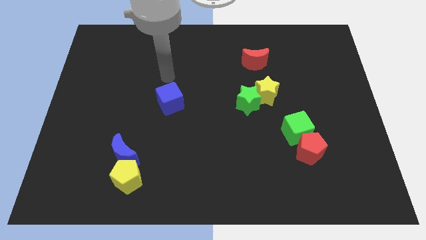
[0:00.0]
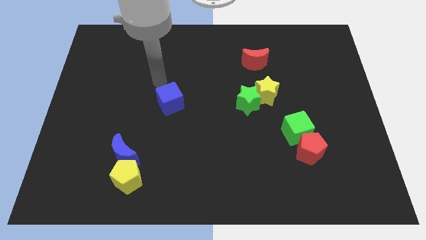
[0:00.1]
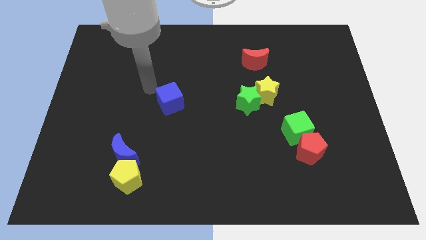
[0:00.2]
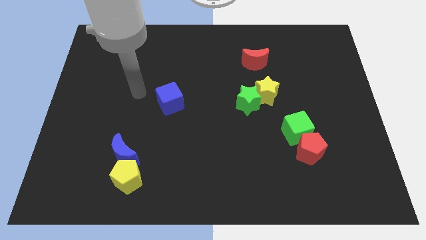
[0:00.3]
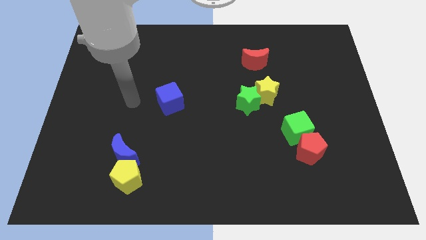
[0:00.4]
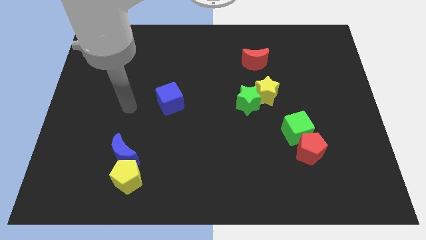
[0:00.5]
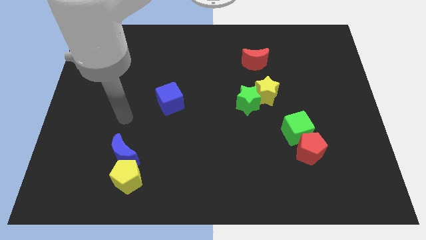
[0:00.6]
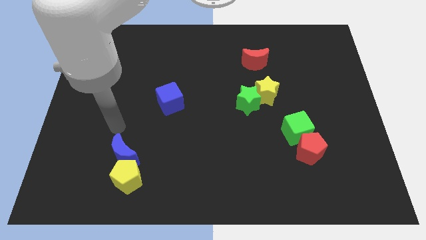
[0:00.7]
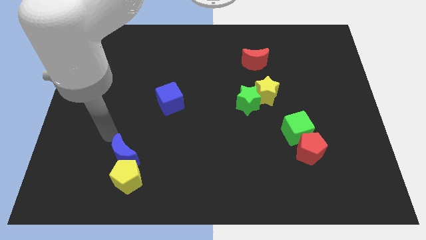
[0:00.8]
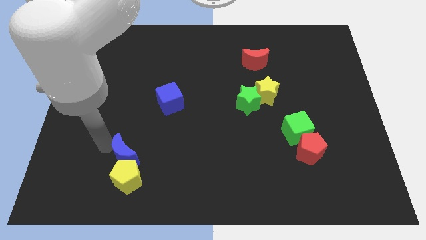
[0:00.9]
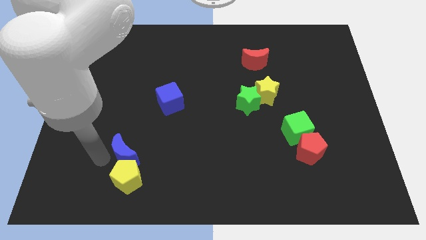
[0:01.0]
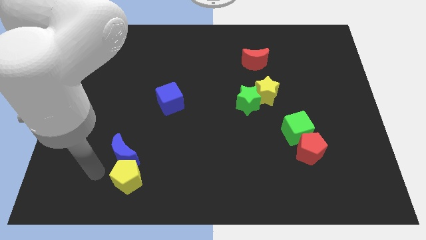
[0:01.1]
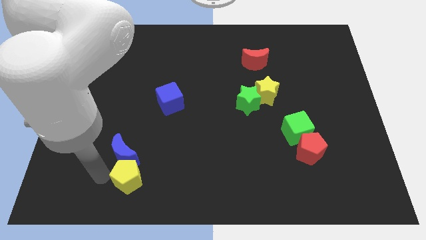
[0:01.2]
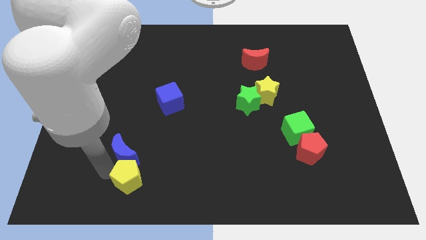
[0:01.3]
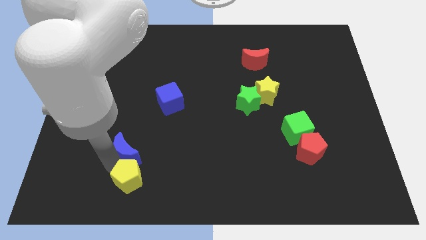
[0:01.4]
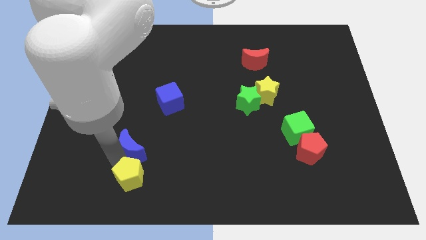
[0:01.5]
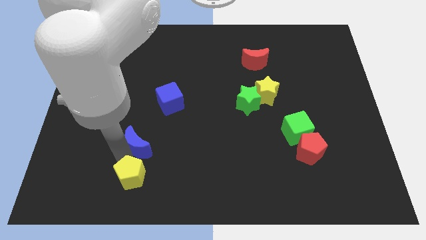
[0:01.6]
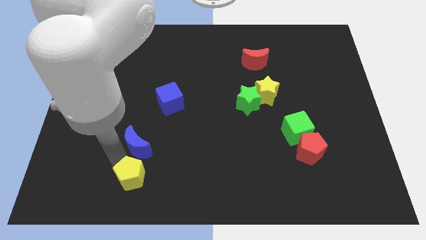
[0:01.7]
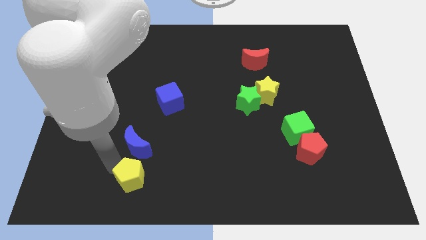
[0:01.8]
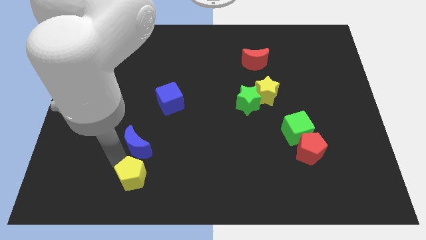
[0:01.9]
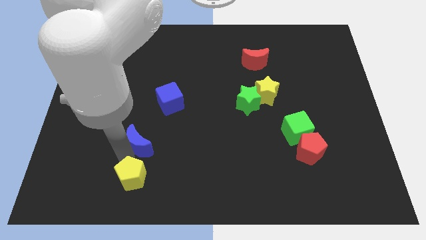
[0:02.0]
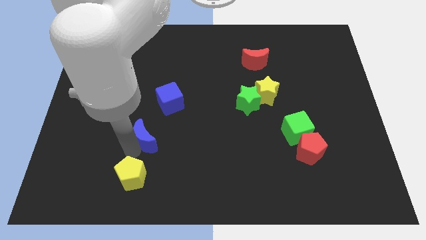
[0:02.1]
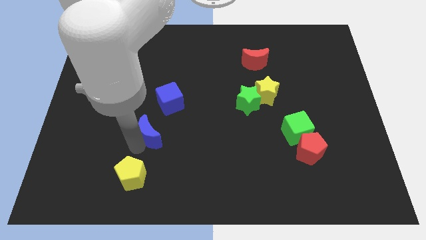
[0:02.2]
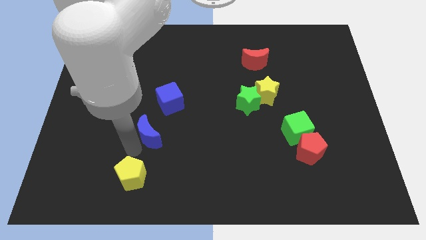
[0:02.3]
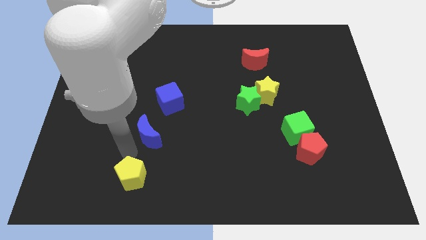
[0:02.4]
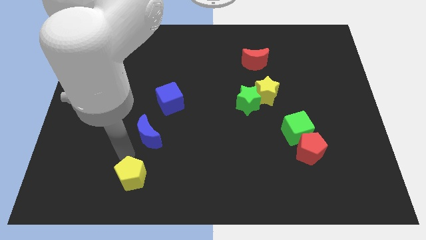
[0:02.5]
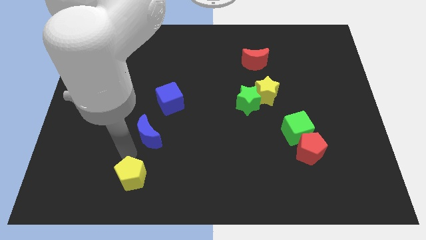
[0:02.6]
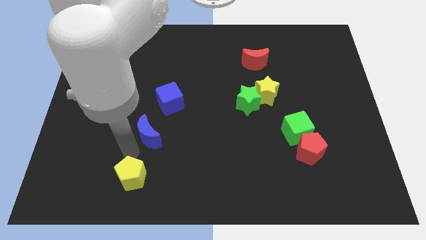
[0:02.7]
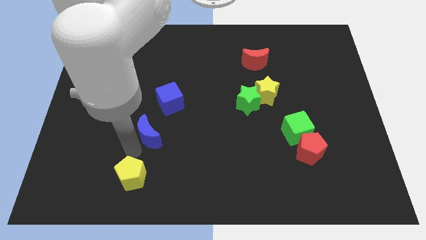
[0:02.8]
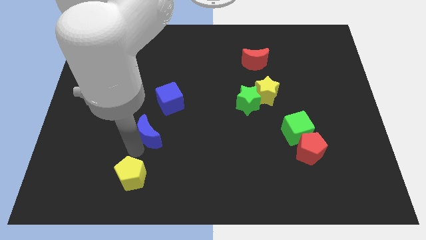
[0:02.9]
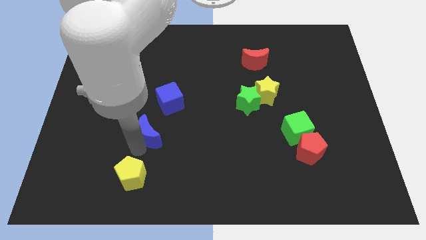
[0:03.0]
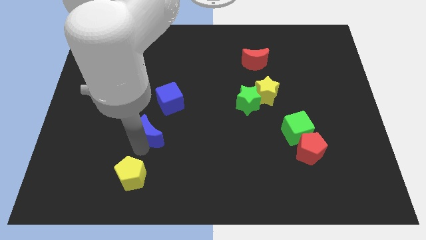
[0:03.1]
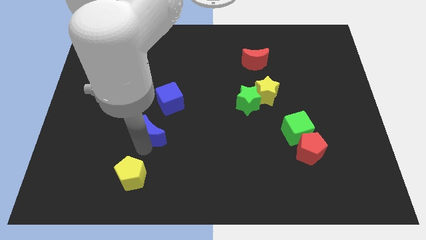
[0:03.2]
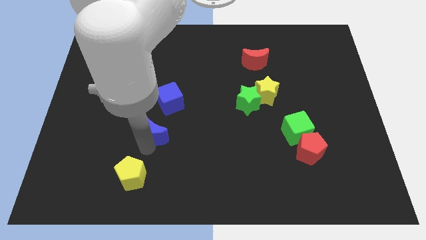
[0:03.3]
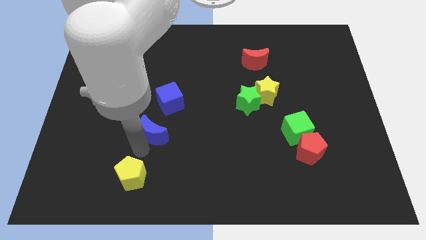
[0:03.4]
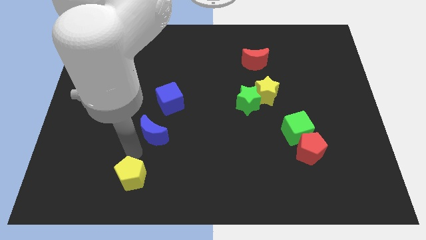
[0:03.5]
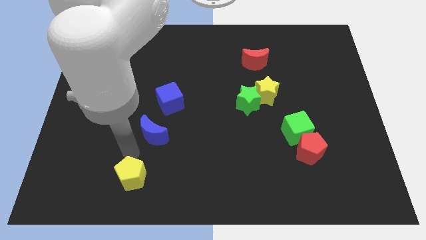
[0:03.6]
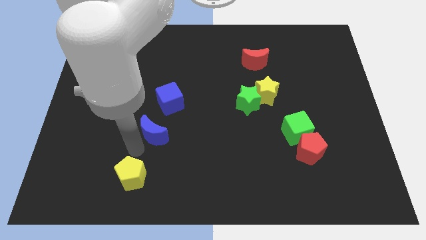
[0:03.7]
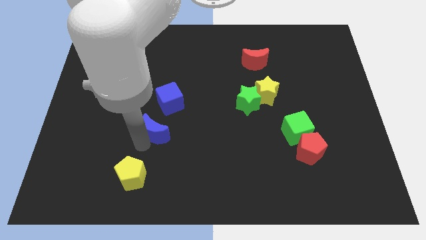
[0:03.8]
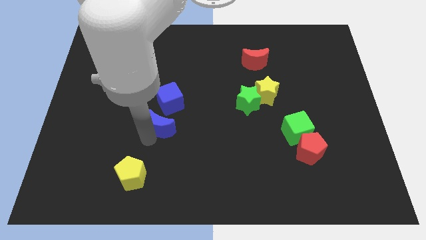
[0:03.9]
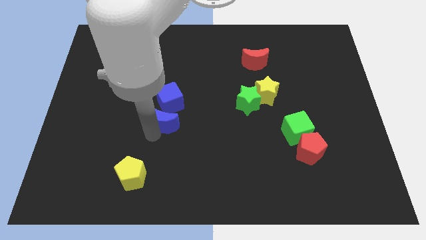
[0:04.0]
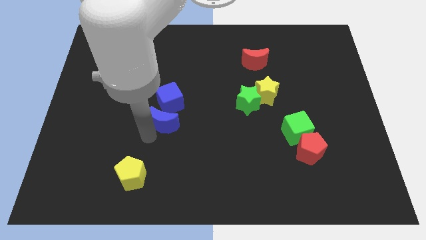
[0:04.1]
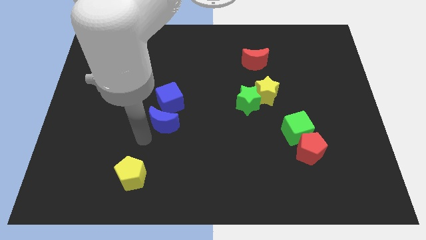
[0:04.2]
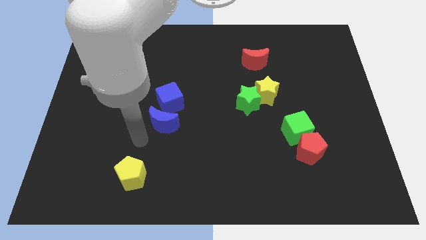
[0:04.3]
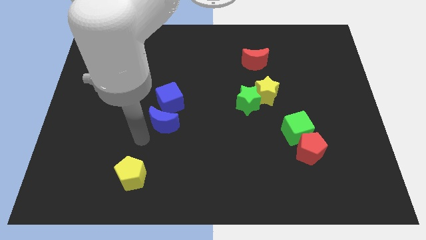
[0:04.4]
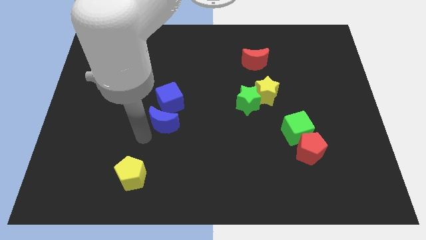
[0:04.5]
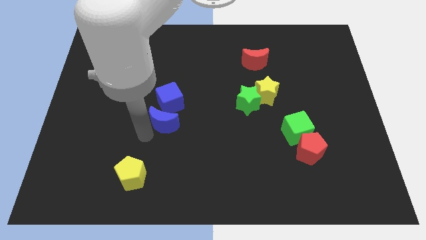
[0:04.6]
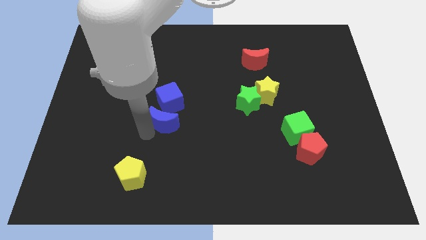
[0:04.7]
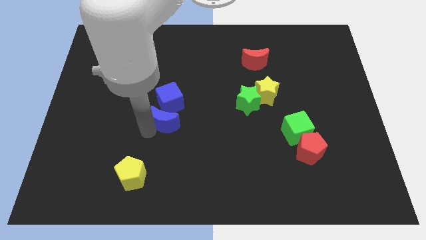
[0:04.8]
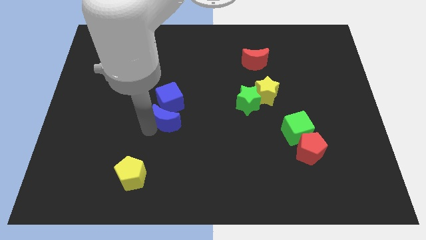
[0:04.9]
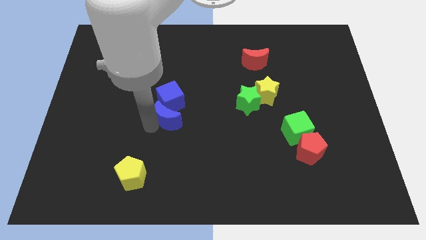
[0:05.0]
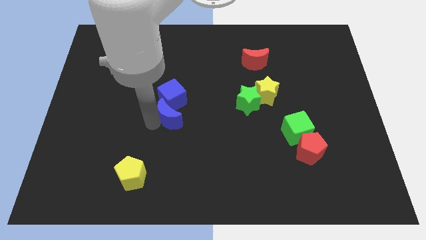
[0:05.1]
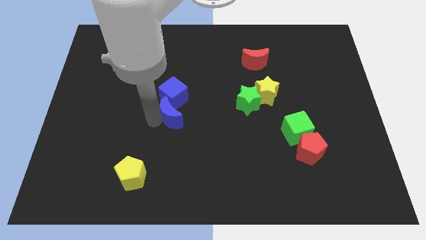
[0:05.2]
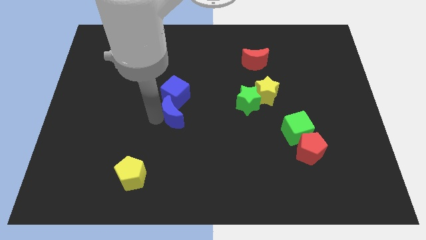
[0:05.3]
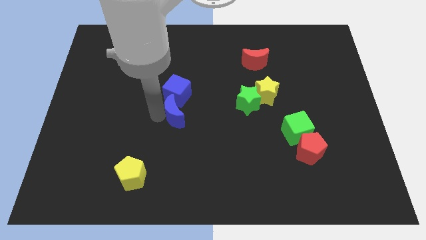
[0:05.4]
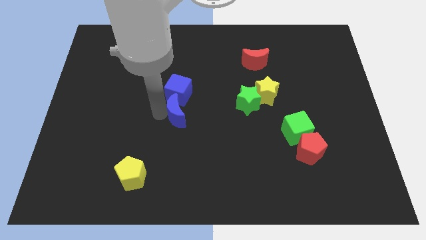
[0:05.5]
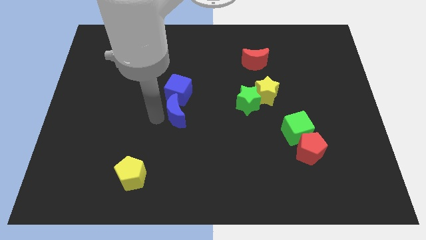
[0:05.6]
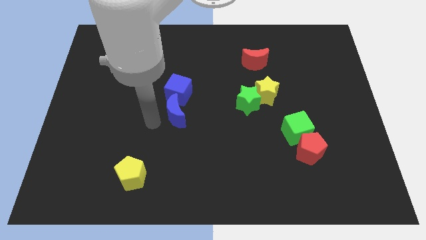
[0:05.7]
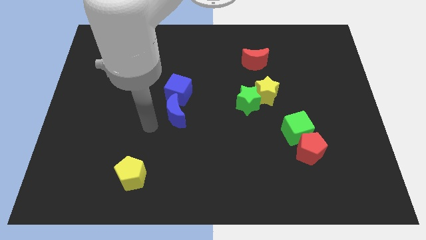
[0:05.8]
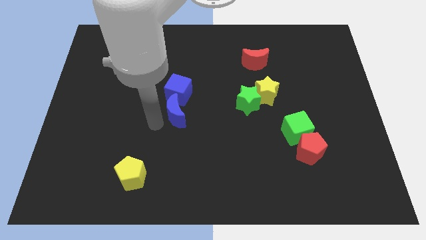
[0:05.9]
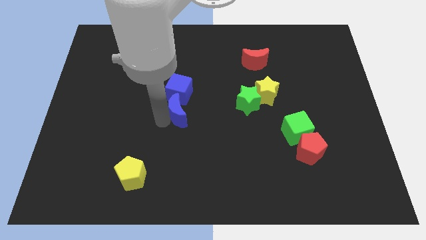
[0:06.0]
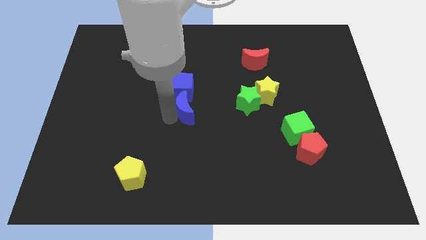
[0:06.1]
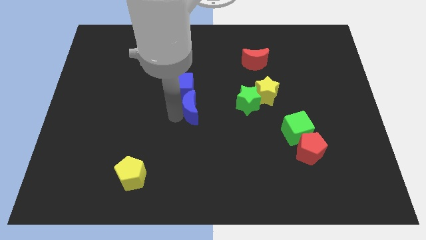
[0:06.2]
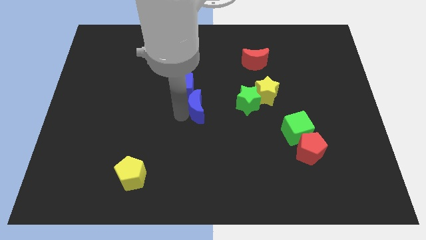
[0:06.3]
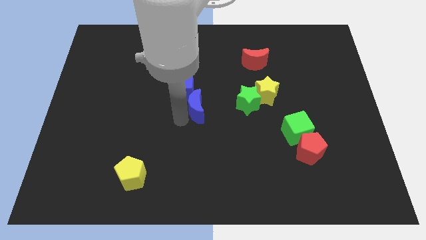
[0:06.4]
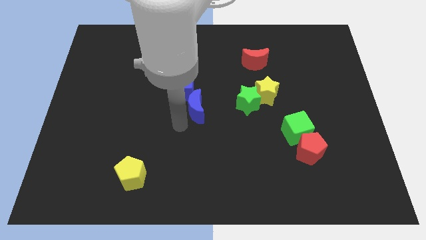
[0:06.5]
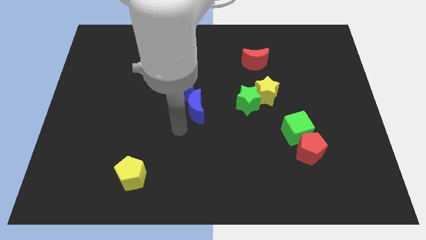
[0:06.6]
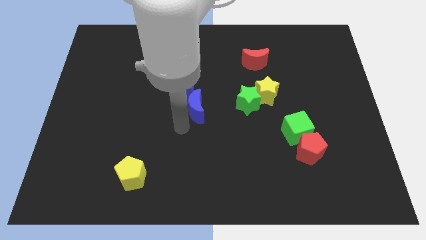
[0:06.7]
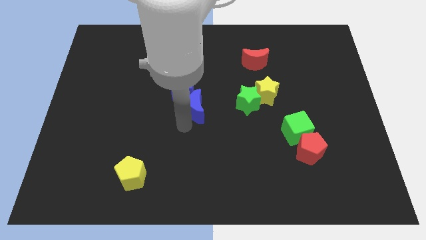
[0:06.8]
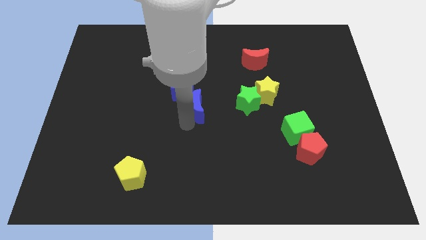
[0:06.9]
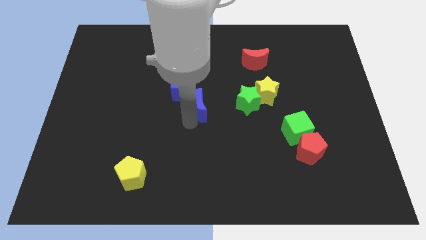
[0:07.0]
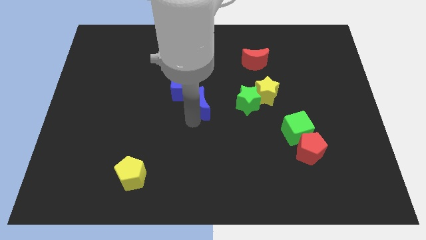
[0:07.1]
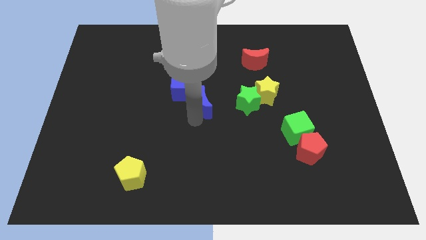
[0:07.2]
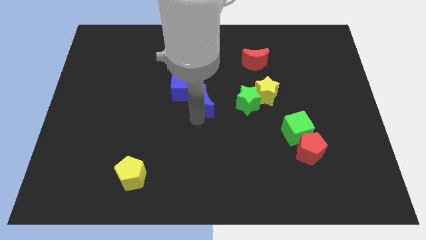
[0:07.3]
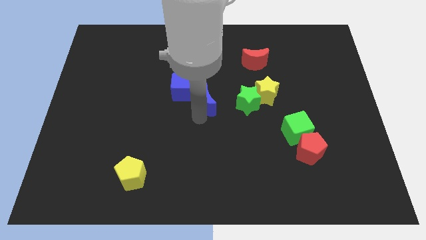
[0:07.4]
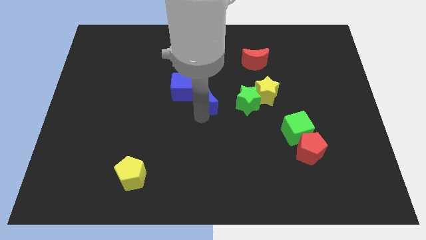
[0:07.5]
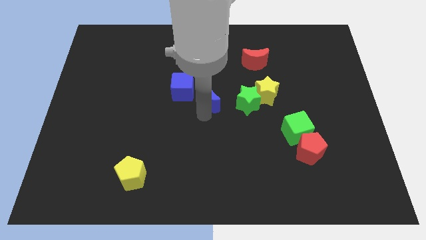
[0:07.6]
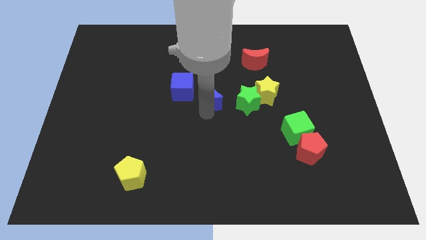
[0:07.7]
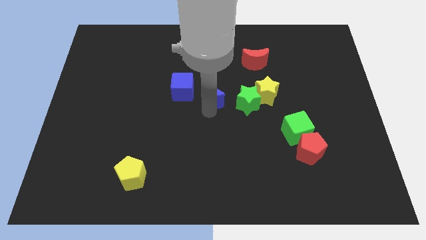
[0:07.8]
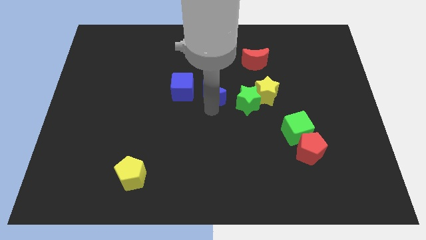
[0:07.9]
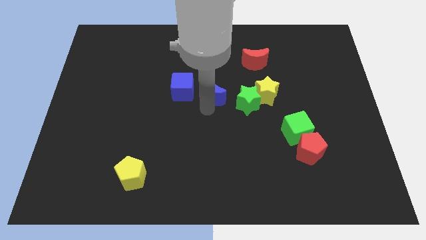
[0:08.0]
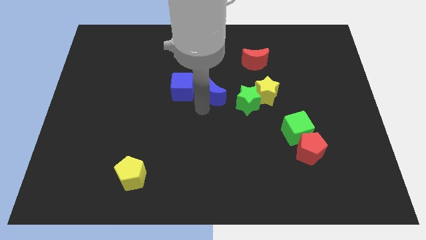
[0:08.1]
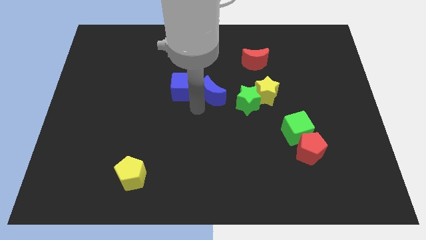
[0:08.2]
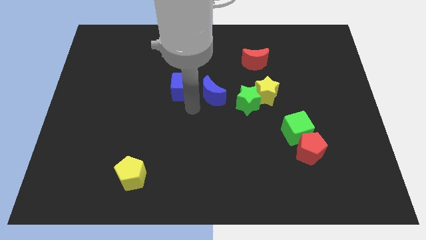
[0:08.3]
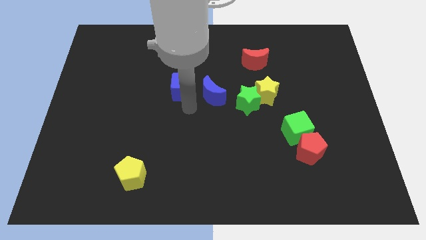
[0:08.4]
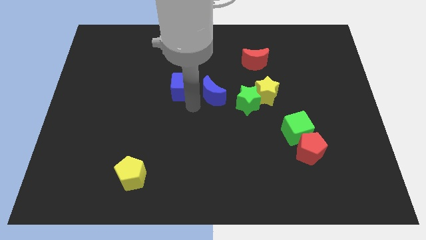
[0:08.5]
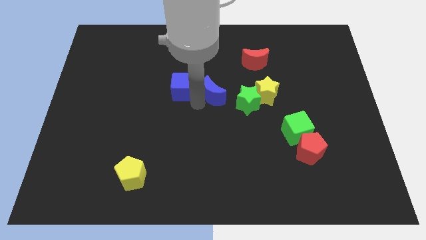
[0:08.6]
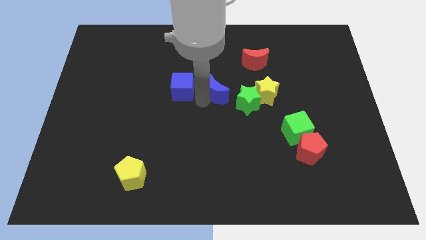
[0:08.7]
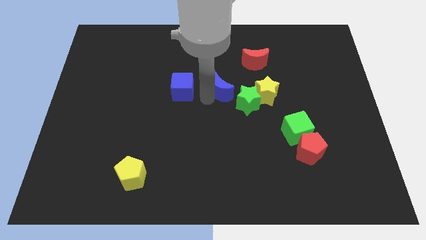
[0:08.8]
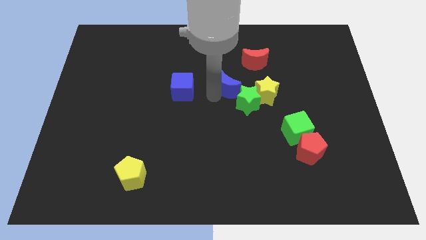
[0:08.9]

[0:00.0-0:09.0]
put the blue moon to the bottom left of the red moon
